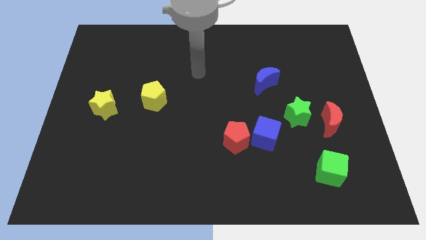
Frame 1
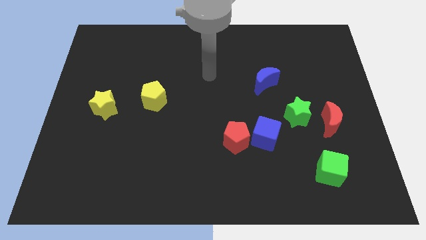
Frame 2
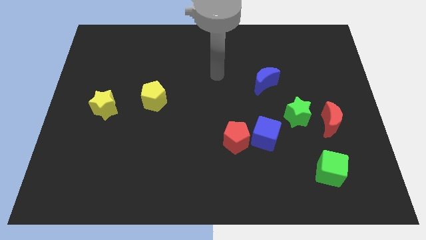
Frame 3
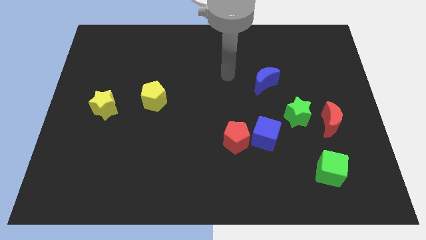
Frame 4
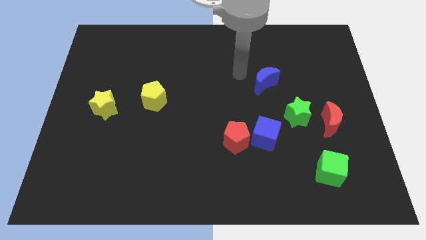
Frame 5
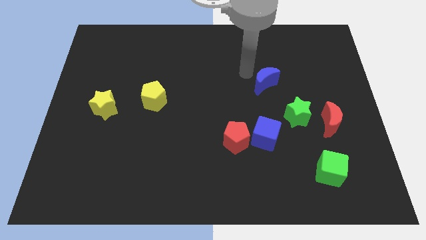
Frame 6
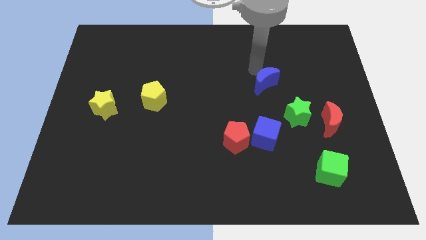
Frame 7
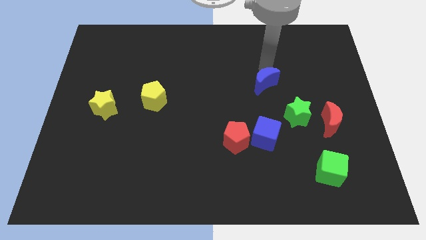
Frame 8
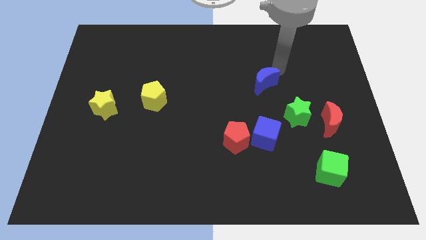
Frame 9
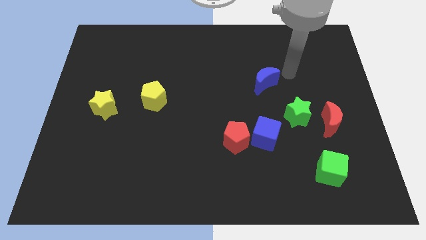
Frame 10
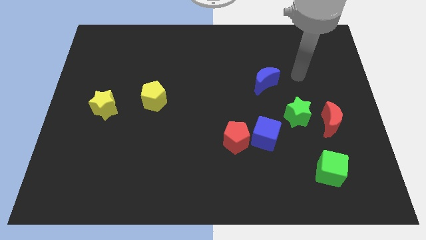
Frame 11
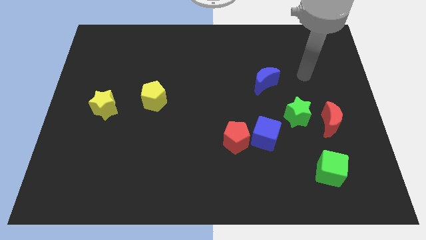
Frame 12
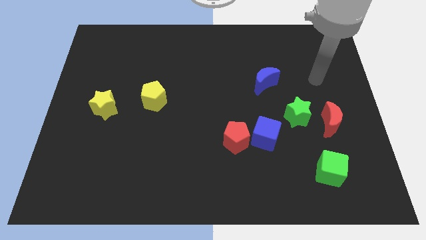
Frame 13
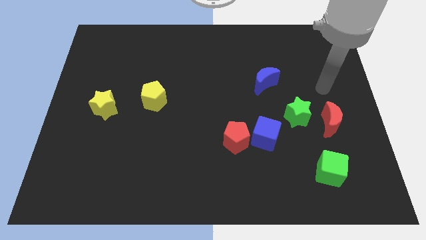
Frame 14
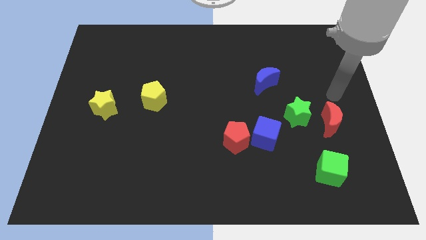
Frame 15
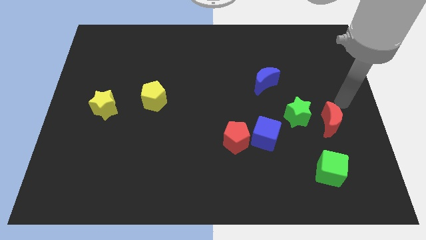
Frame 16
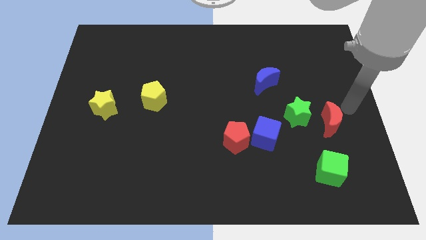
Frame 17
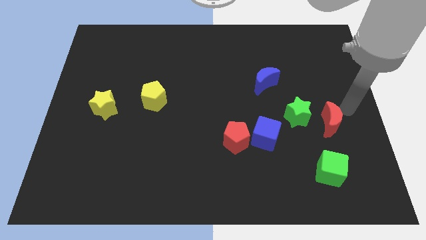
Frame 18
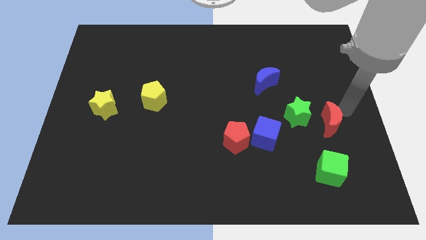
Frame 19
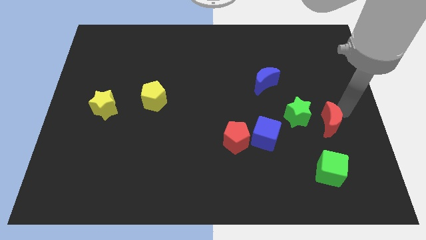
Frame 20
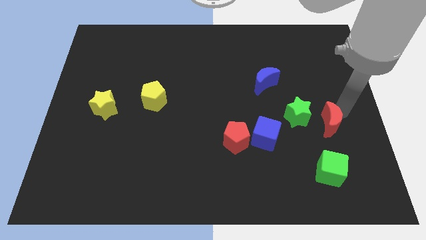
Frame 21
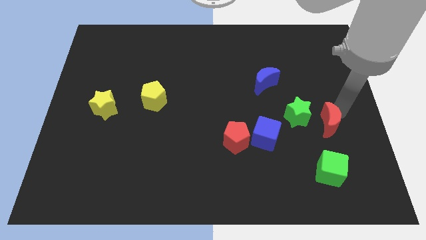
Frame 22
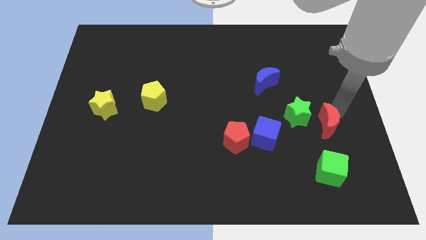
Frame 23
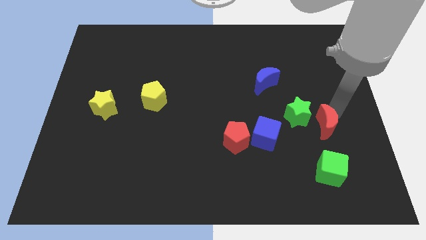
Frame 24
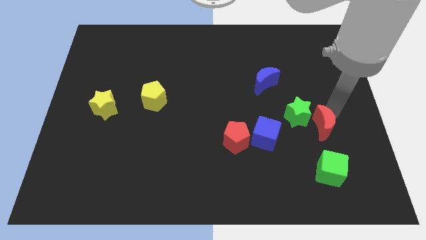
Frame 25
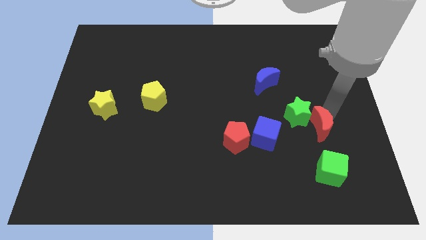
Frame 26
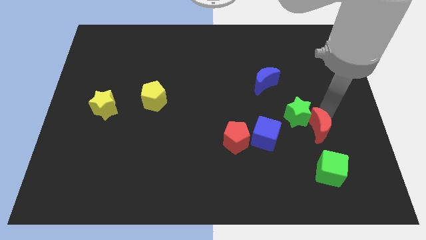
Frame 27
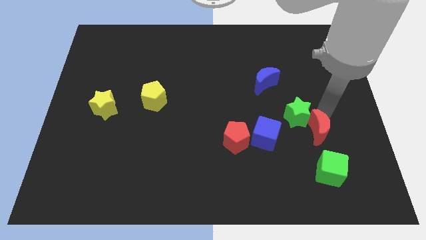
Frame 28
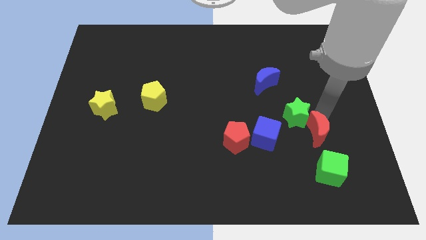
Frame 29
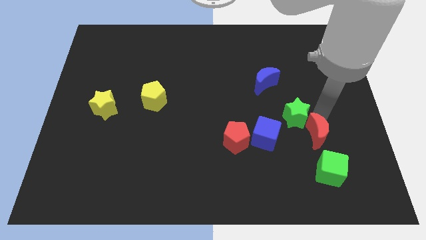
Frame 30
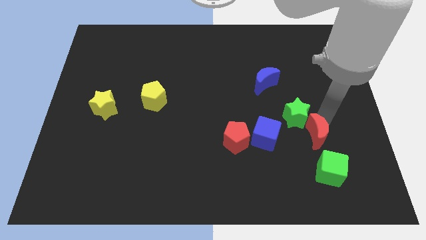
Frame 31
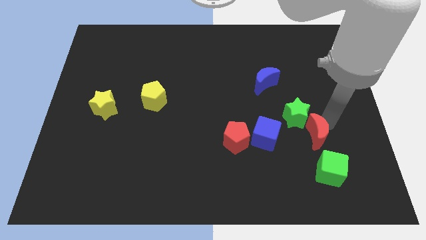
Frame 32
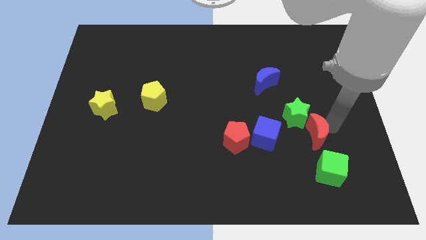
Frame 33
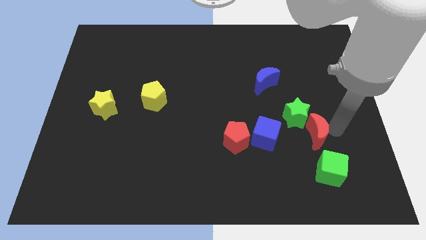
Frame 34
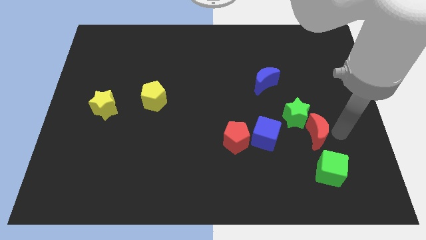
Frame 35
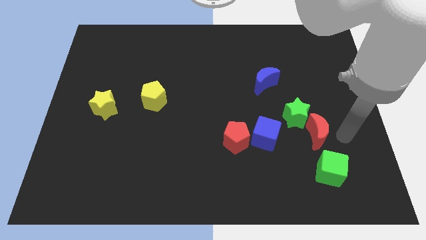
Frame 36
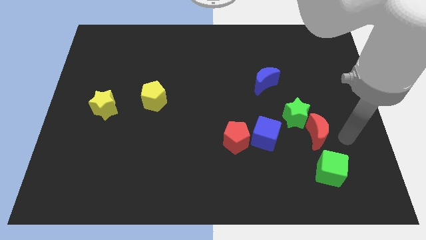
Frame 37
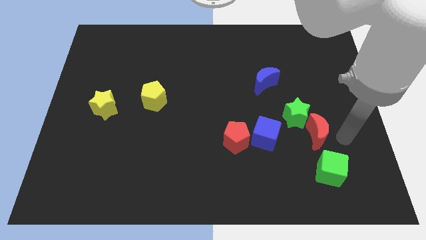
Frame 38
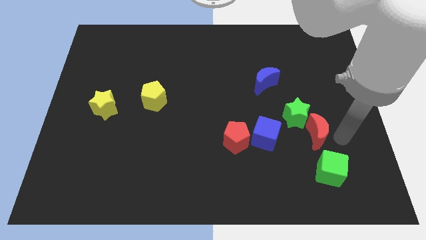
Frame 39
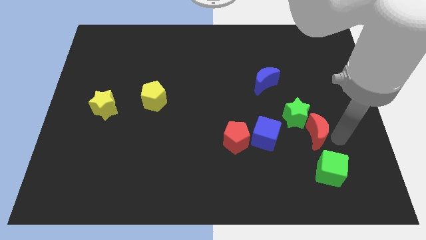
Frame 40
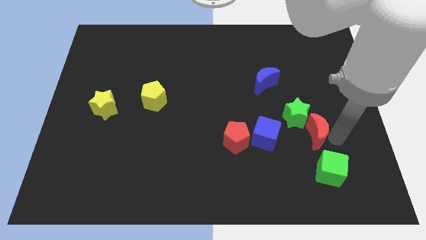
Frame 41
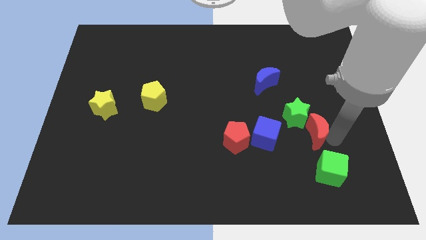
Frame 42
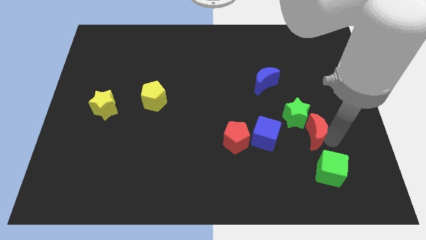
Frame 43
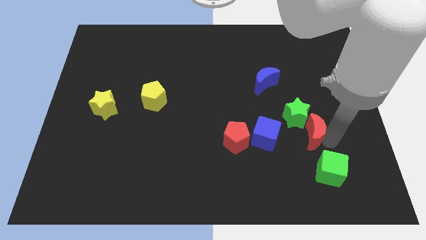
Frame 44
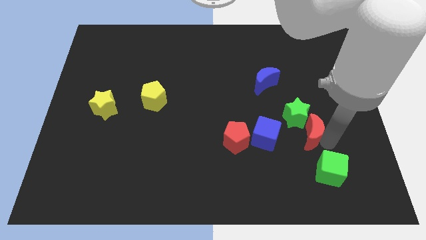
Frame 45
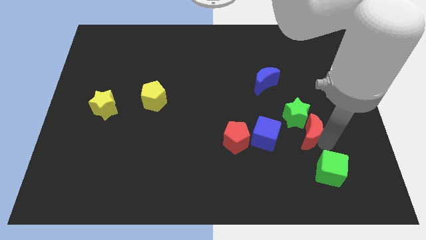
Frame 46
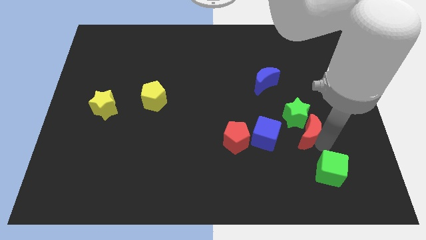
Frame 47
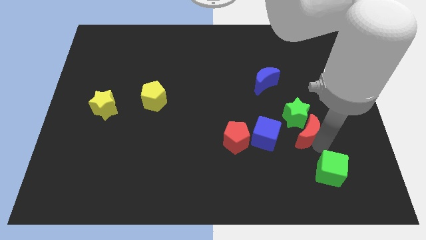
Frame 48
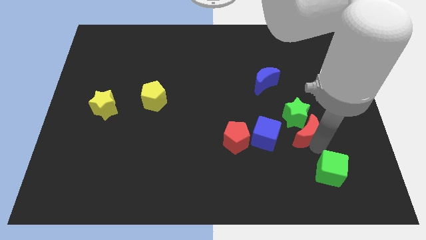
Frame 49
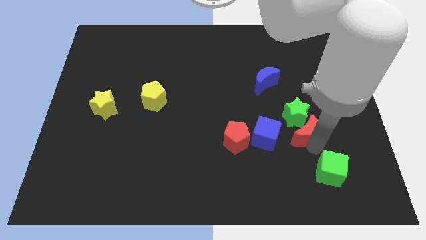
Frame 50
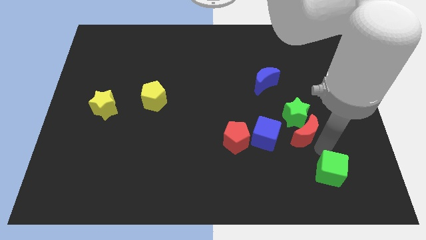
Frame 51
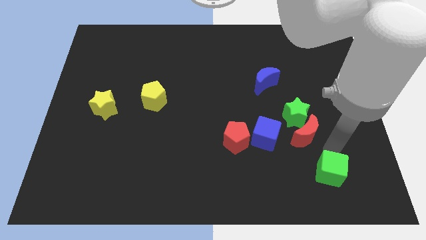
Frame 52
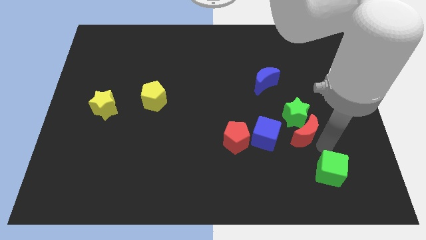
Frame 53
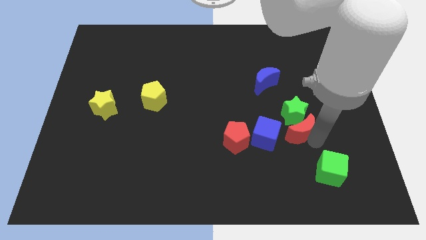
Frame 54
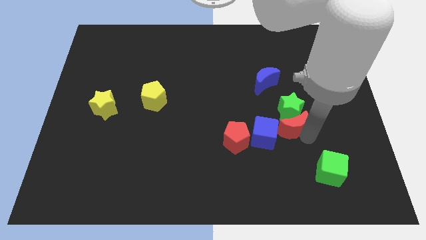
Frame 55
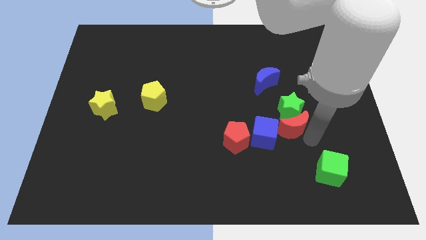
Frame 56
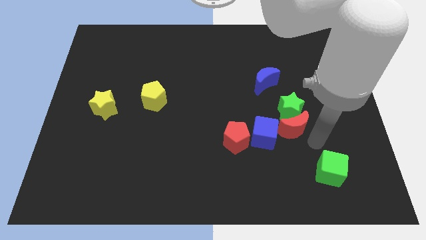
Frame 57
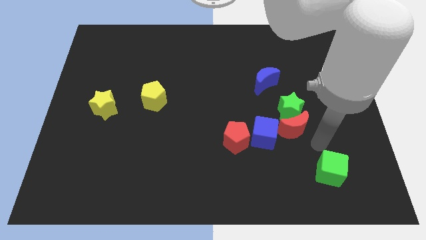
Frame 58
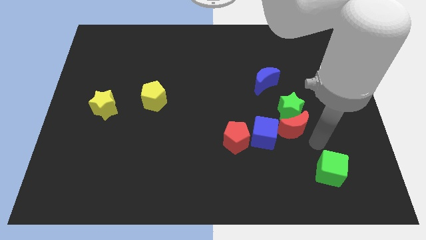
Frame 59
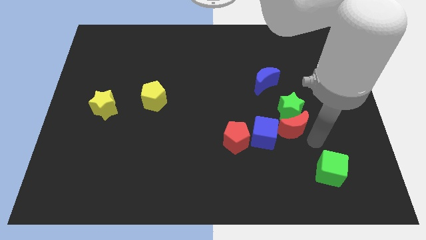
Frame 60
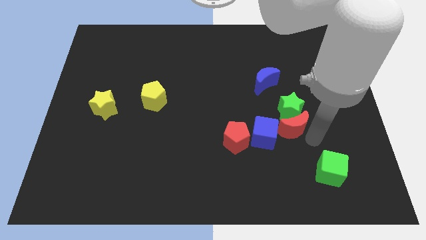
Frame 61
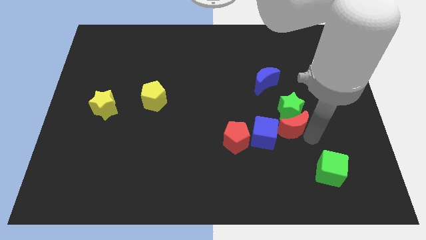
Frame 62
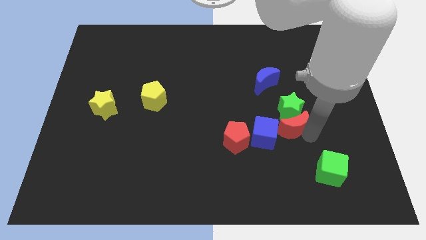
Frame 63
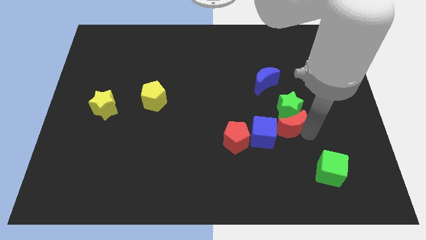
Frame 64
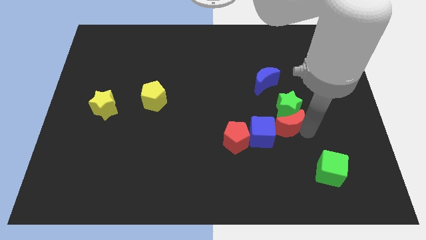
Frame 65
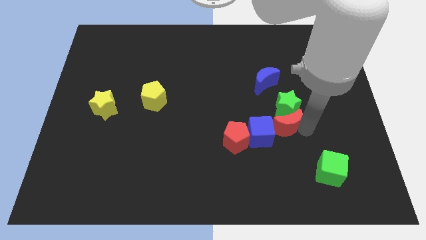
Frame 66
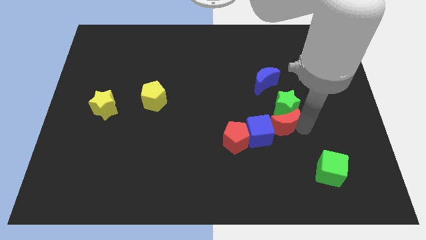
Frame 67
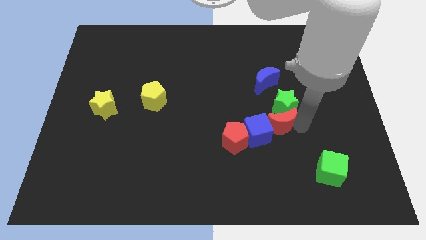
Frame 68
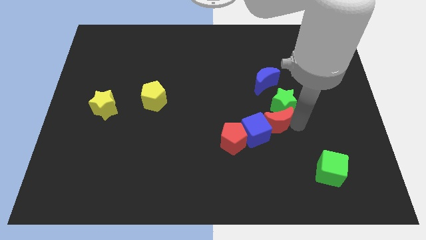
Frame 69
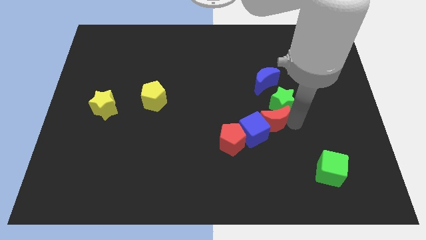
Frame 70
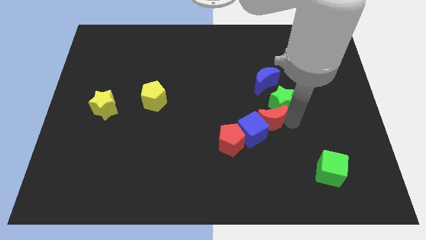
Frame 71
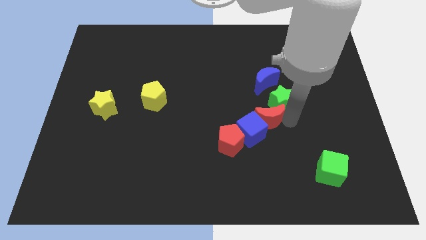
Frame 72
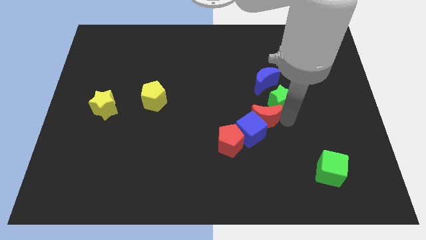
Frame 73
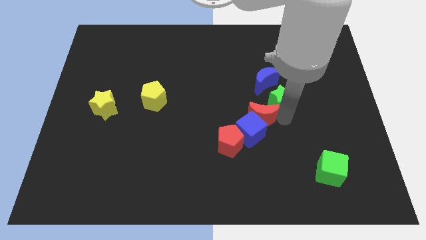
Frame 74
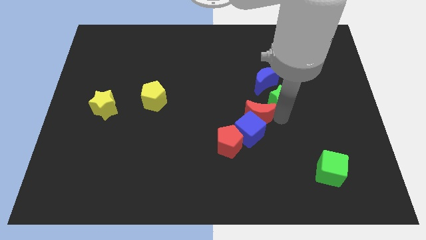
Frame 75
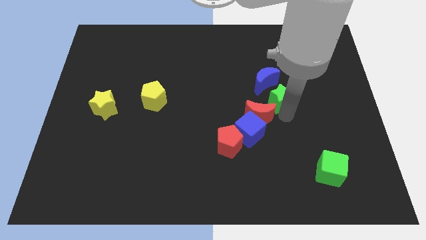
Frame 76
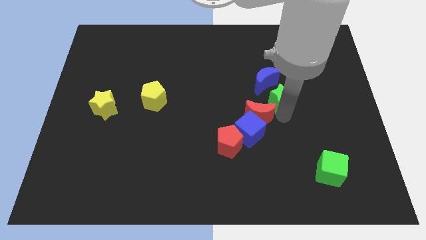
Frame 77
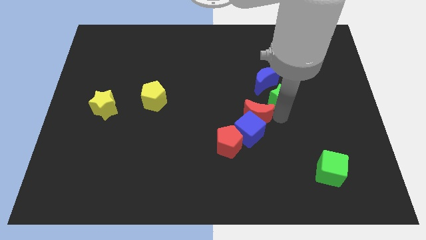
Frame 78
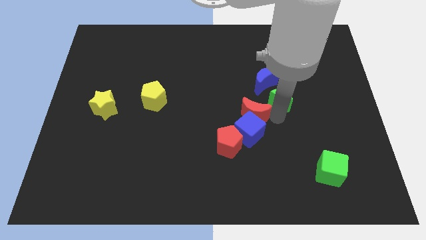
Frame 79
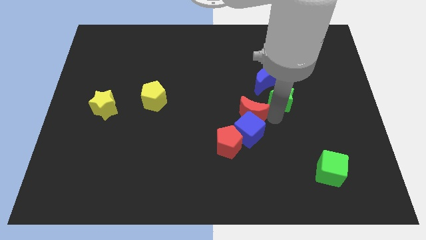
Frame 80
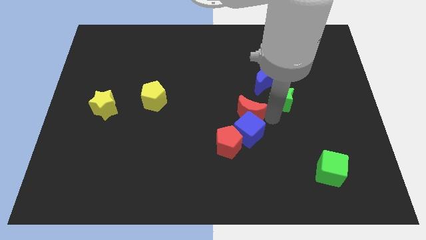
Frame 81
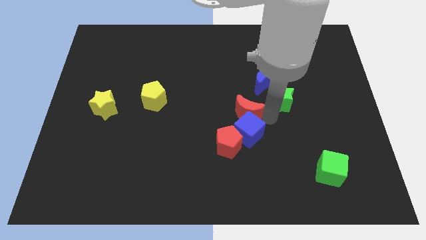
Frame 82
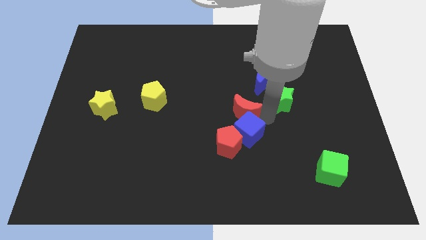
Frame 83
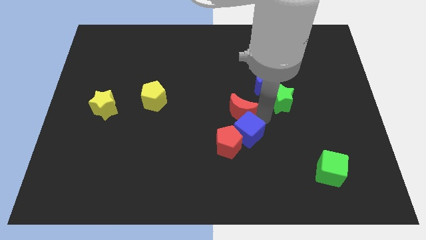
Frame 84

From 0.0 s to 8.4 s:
push the red moon left

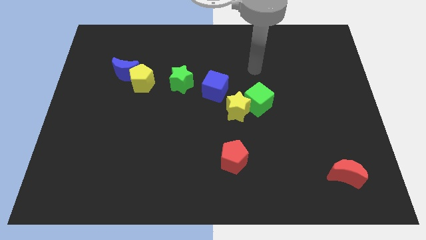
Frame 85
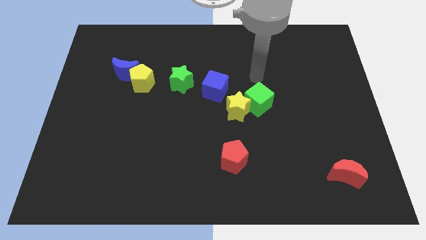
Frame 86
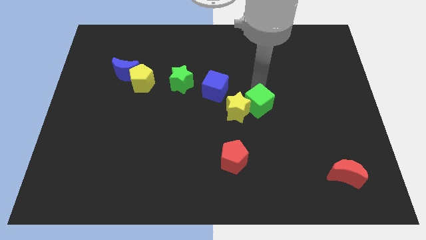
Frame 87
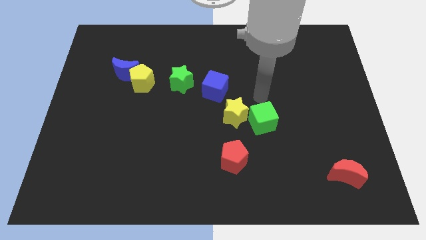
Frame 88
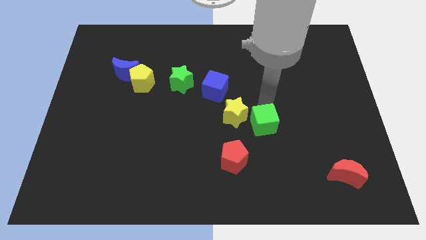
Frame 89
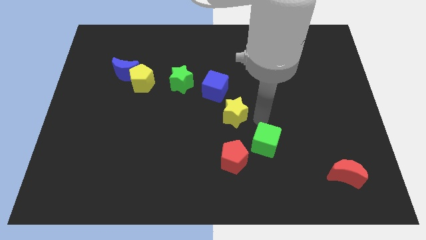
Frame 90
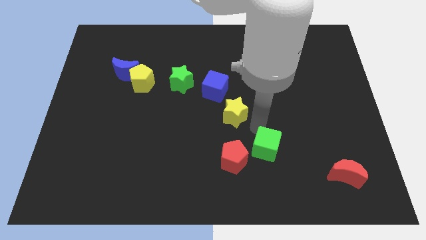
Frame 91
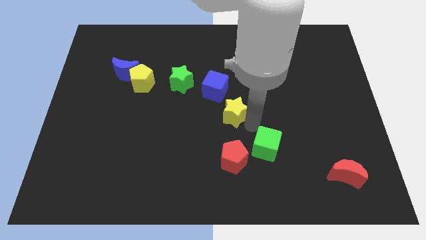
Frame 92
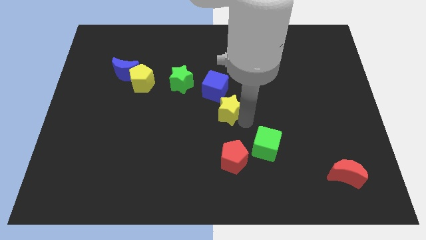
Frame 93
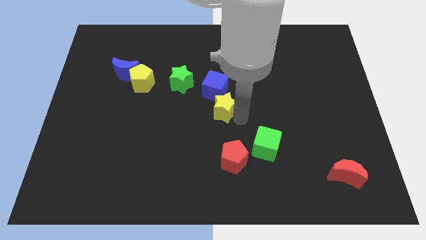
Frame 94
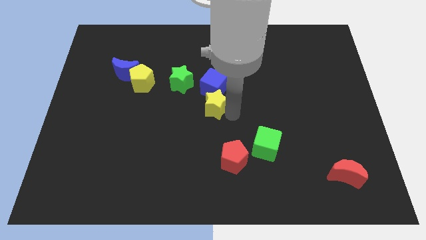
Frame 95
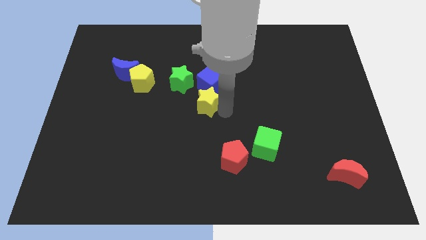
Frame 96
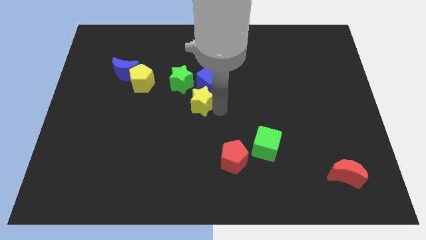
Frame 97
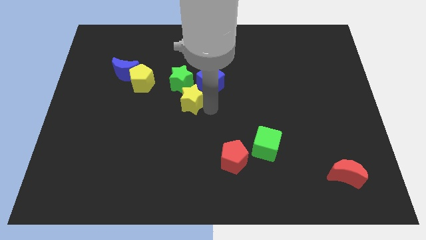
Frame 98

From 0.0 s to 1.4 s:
move the yellow star up and then to the left a little bit
